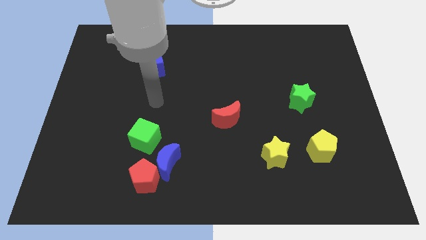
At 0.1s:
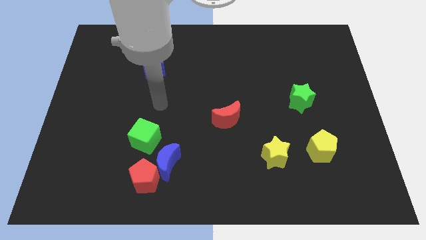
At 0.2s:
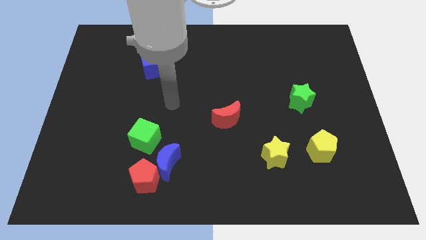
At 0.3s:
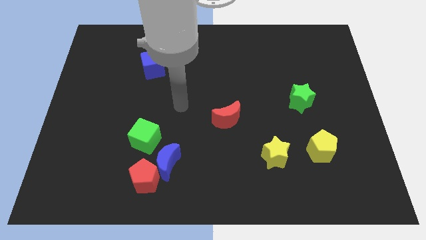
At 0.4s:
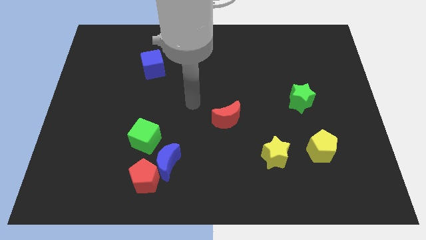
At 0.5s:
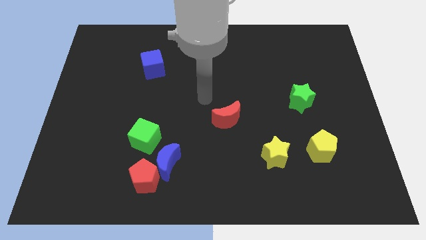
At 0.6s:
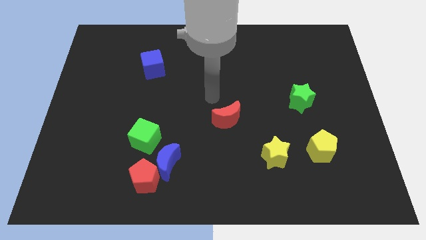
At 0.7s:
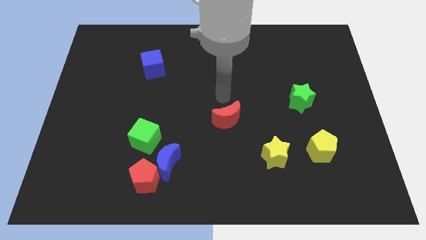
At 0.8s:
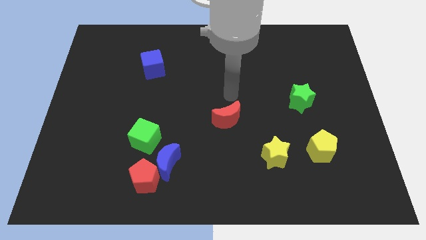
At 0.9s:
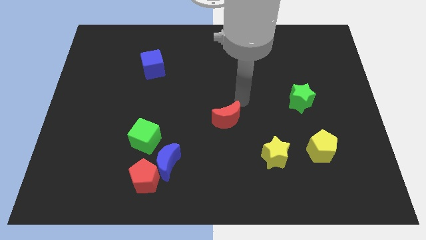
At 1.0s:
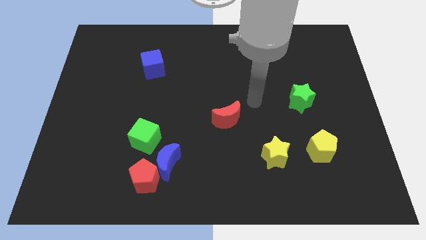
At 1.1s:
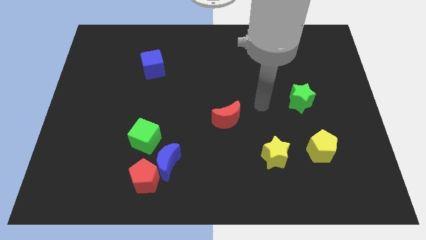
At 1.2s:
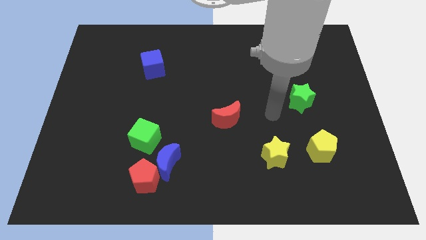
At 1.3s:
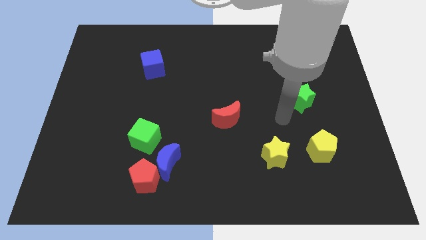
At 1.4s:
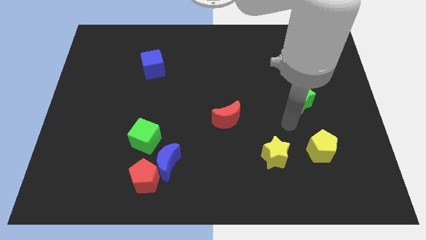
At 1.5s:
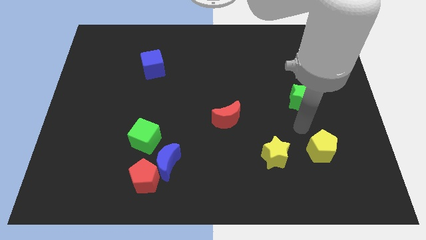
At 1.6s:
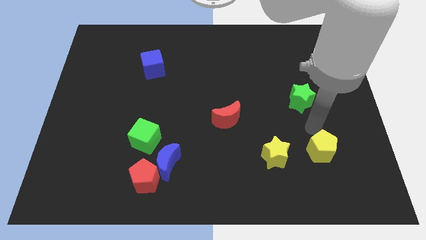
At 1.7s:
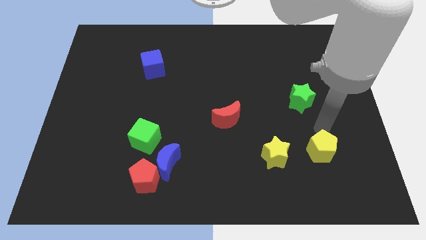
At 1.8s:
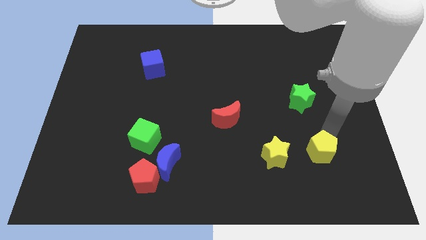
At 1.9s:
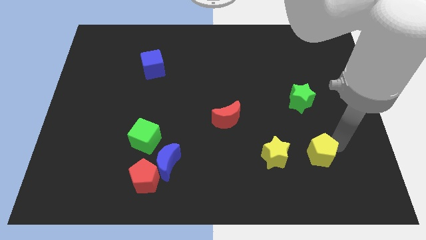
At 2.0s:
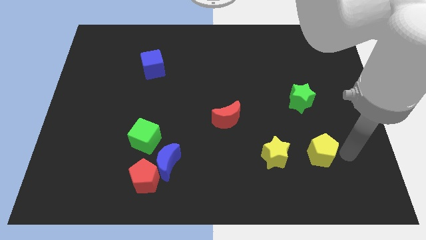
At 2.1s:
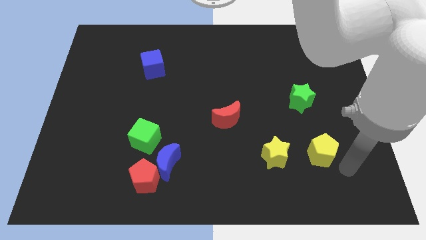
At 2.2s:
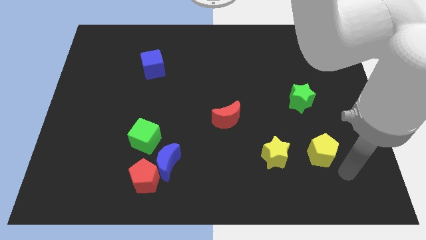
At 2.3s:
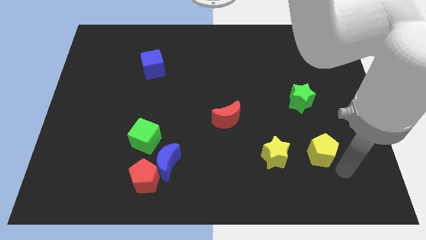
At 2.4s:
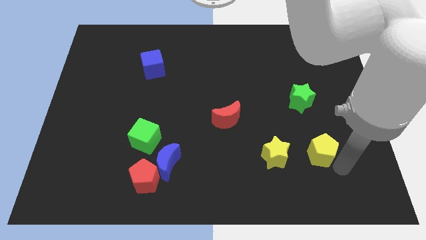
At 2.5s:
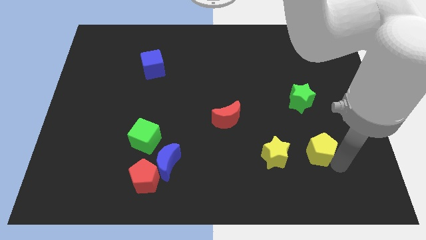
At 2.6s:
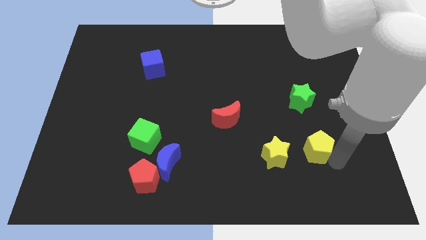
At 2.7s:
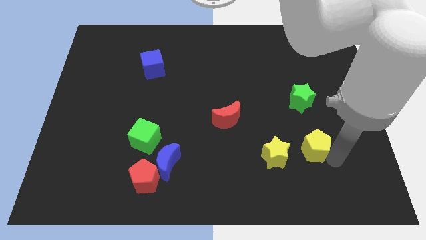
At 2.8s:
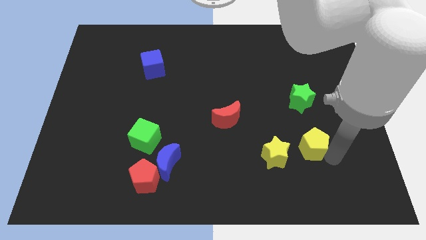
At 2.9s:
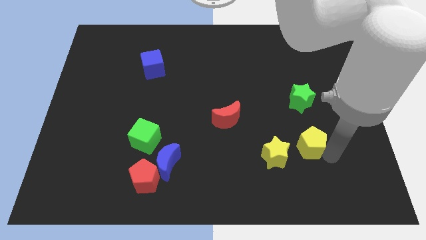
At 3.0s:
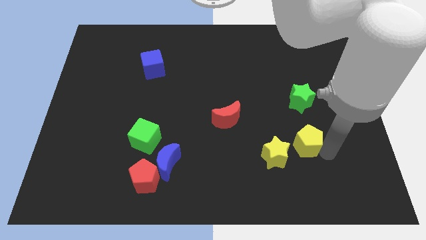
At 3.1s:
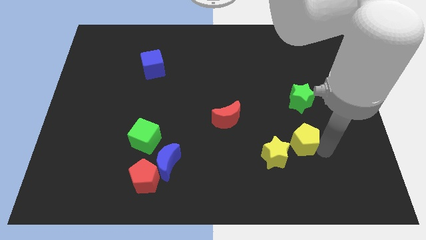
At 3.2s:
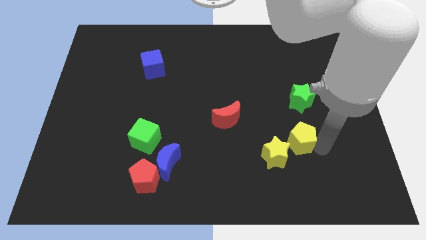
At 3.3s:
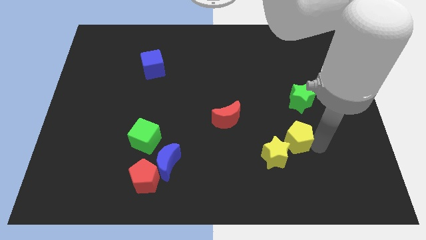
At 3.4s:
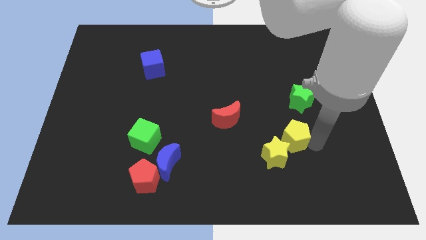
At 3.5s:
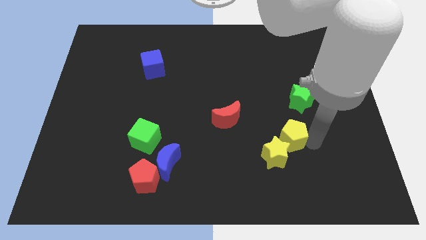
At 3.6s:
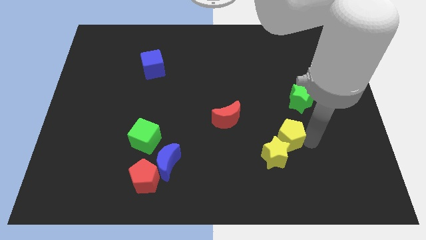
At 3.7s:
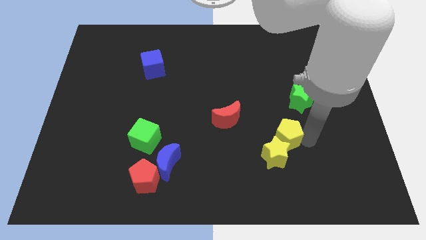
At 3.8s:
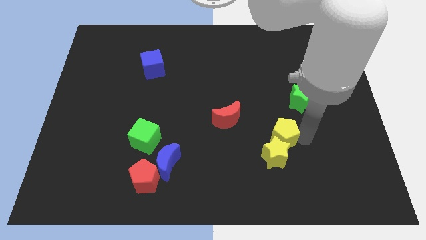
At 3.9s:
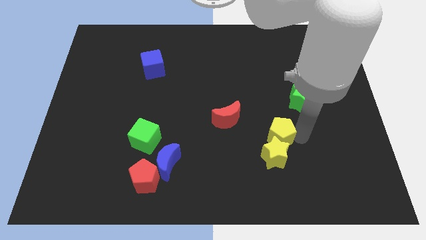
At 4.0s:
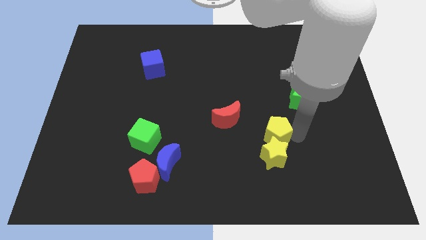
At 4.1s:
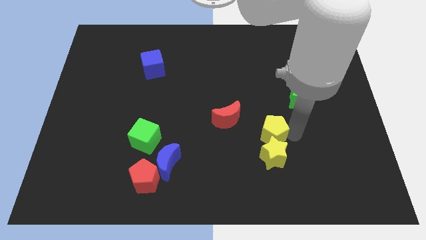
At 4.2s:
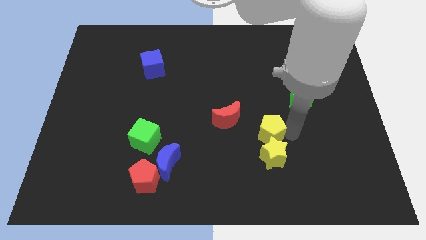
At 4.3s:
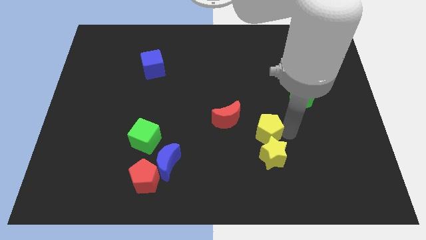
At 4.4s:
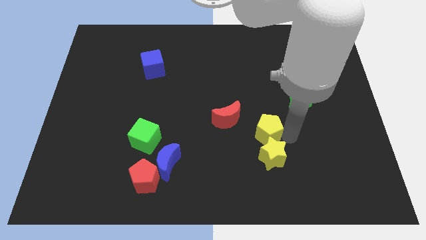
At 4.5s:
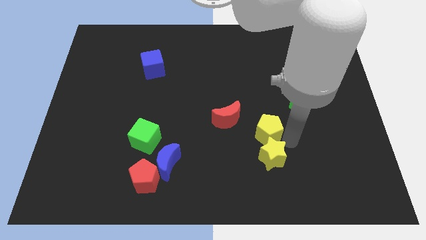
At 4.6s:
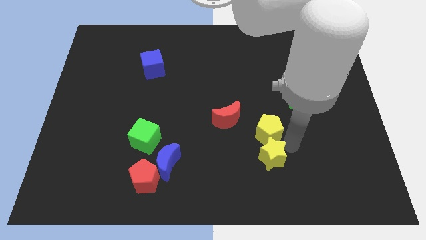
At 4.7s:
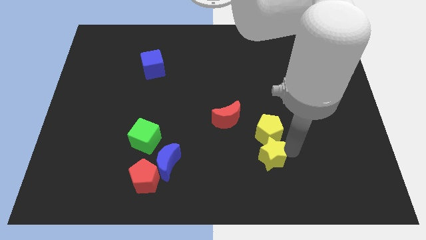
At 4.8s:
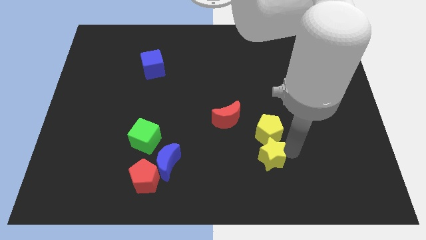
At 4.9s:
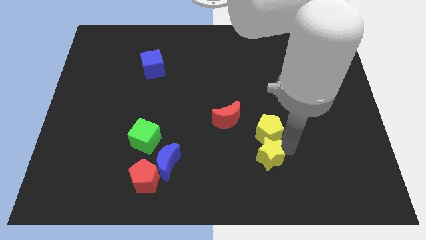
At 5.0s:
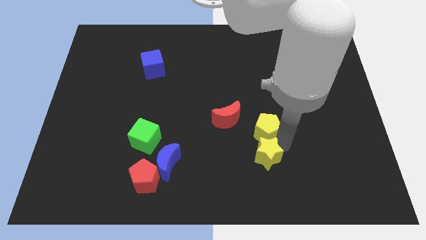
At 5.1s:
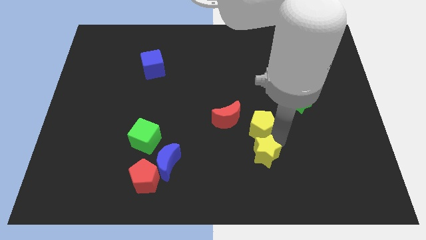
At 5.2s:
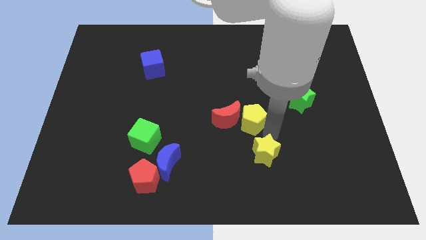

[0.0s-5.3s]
move the yellow pentagon close to the red moon

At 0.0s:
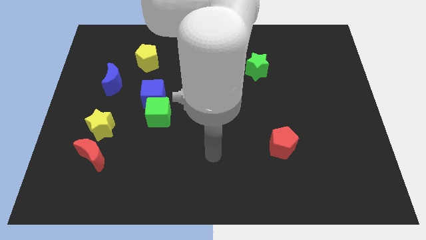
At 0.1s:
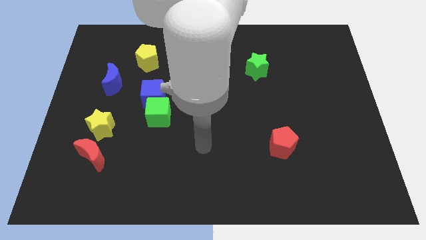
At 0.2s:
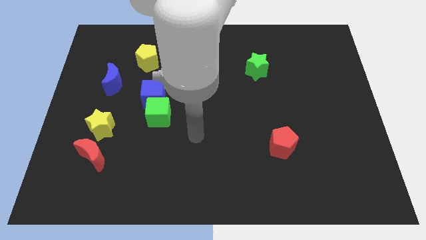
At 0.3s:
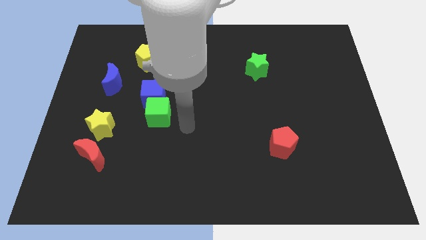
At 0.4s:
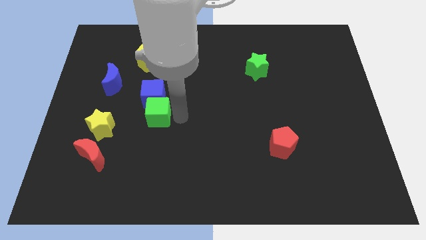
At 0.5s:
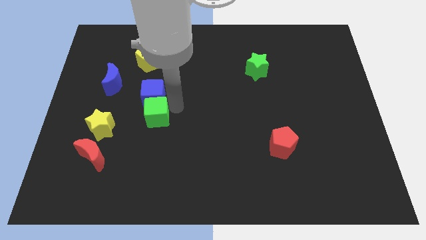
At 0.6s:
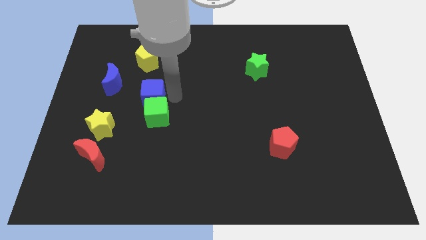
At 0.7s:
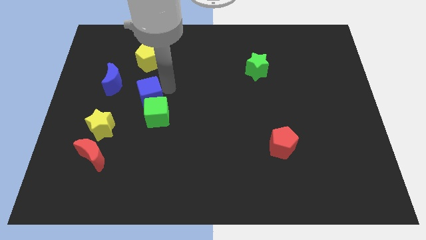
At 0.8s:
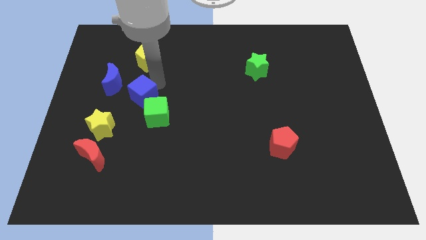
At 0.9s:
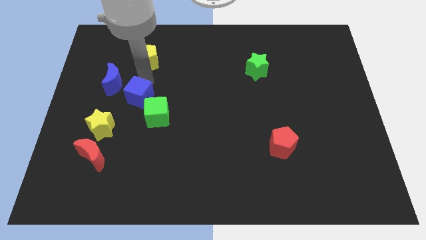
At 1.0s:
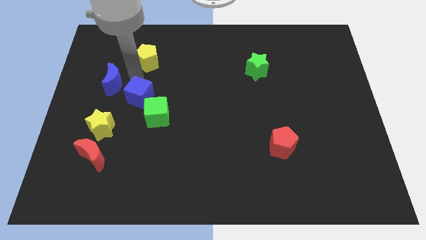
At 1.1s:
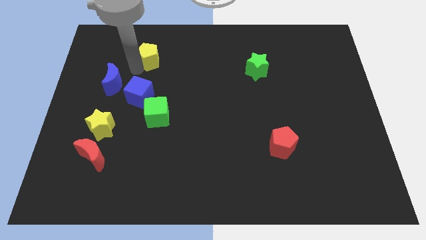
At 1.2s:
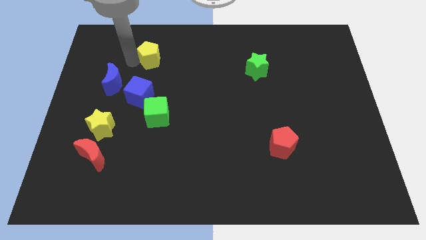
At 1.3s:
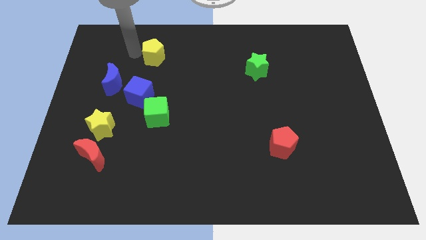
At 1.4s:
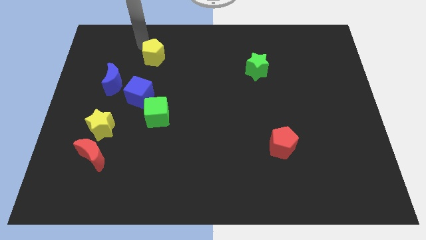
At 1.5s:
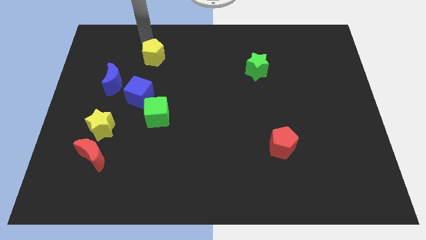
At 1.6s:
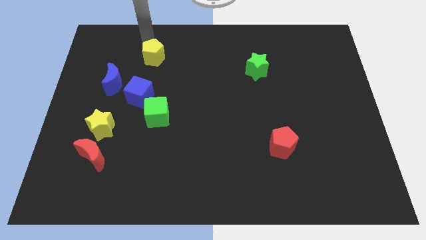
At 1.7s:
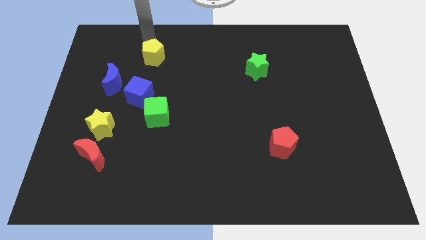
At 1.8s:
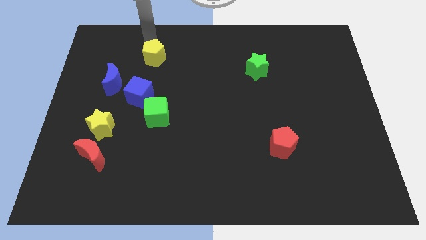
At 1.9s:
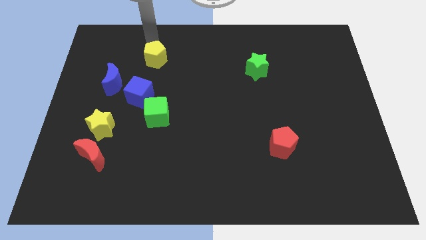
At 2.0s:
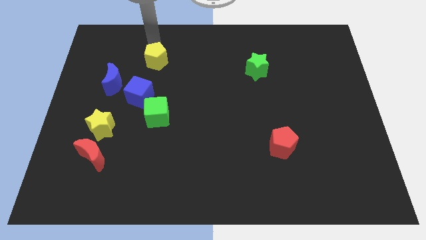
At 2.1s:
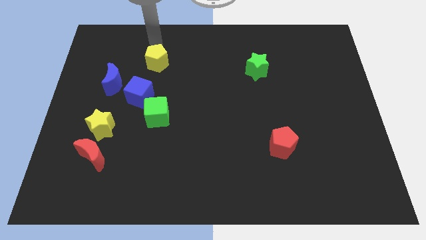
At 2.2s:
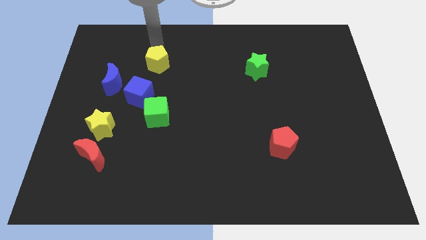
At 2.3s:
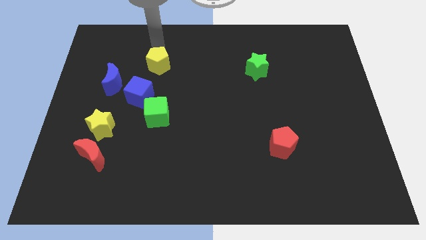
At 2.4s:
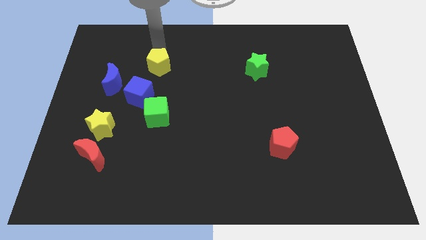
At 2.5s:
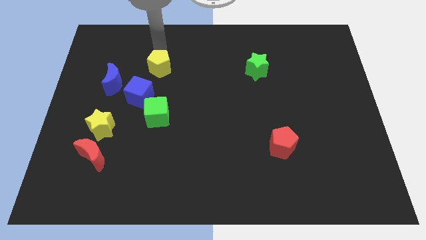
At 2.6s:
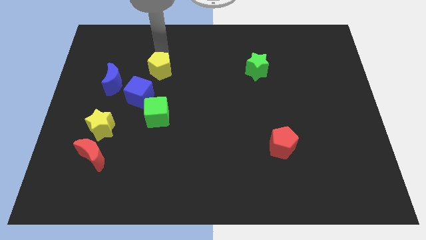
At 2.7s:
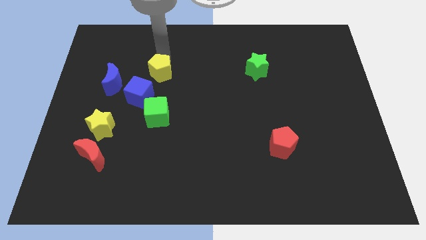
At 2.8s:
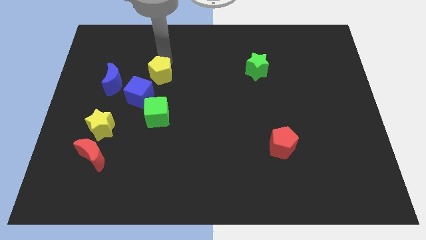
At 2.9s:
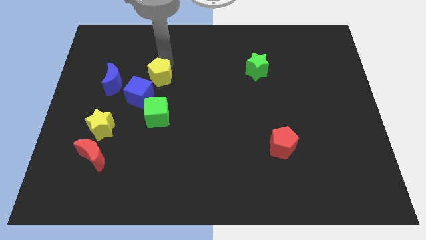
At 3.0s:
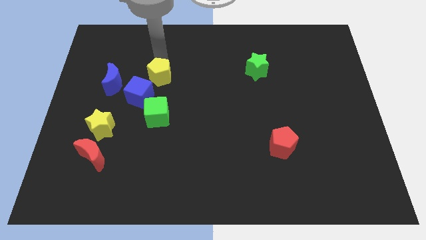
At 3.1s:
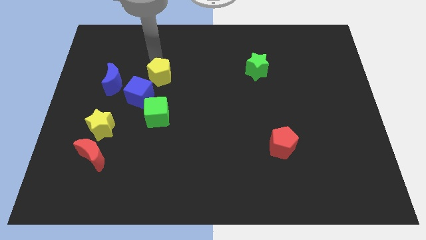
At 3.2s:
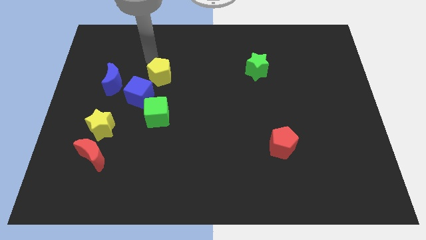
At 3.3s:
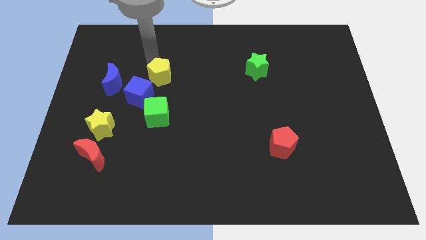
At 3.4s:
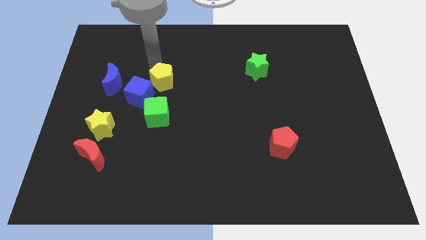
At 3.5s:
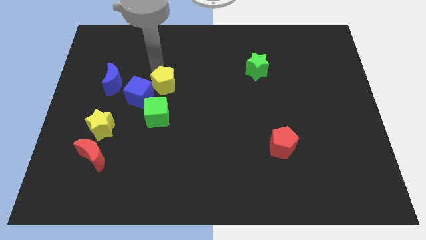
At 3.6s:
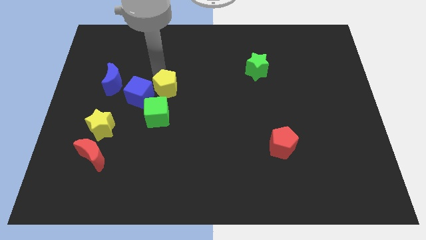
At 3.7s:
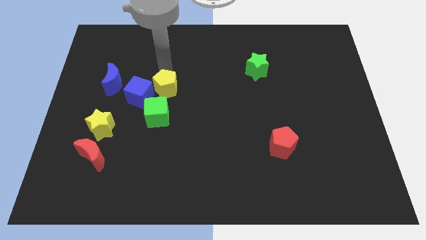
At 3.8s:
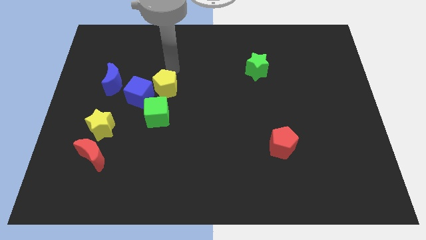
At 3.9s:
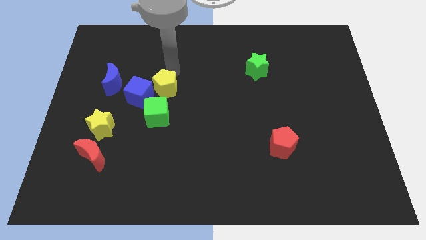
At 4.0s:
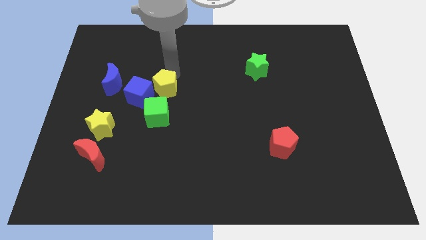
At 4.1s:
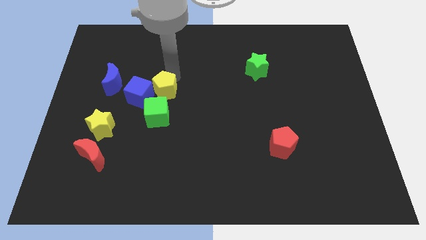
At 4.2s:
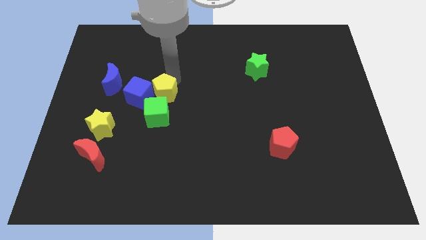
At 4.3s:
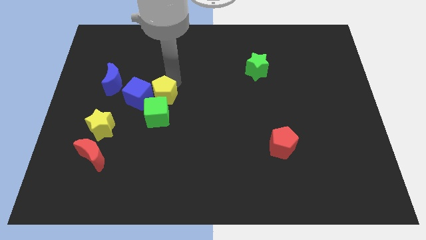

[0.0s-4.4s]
push the yellow pentagon close to the green cube
